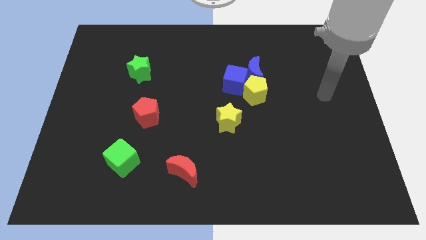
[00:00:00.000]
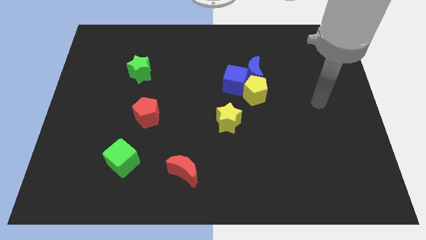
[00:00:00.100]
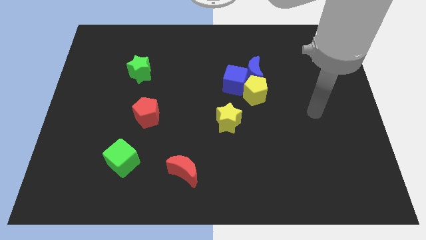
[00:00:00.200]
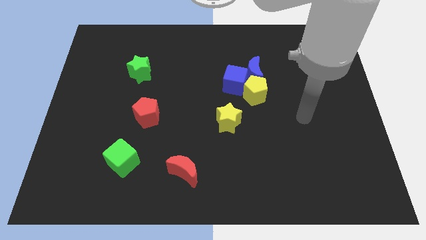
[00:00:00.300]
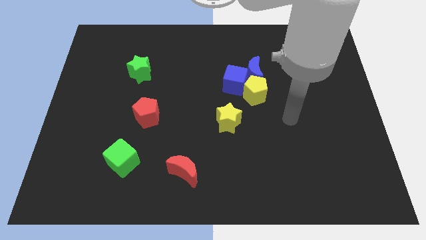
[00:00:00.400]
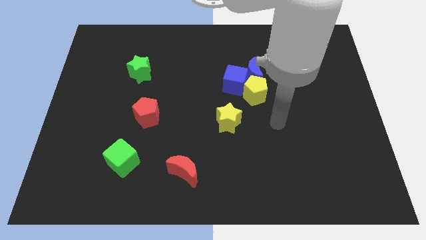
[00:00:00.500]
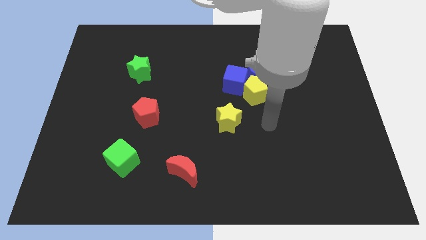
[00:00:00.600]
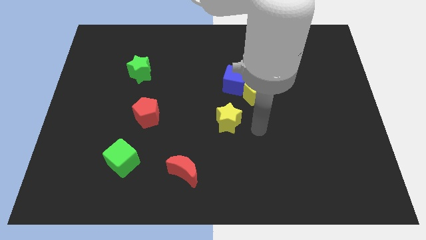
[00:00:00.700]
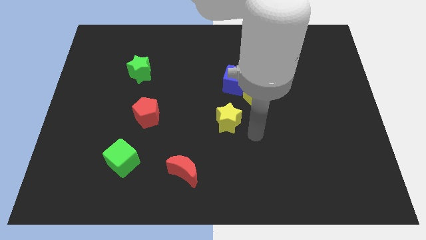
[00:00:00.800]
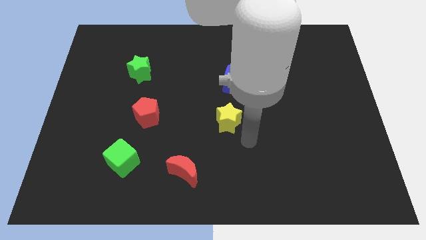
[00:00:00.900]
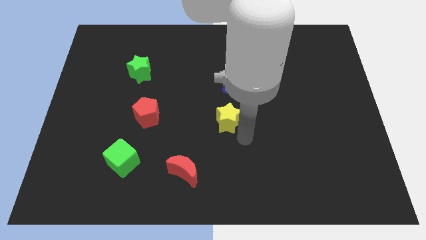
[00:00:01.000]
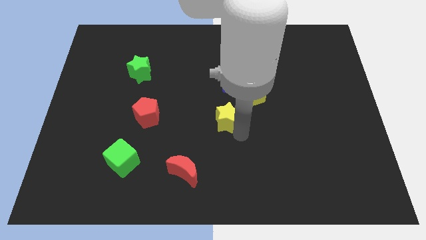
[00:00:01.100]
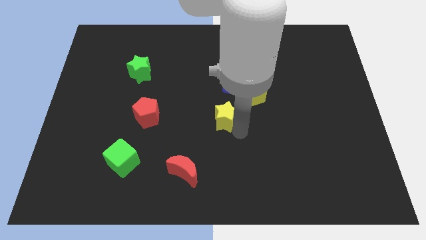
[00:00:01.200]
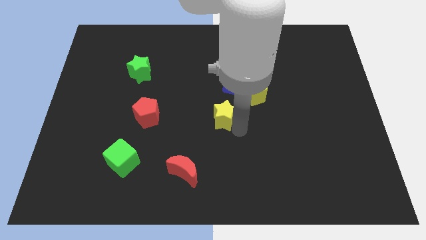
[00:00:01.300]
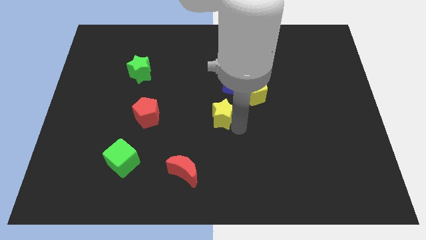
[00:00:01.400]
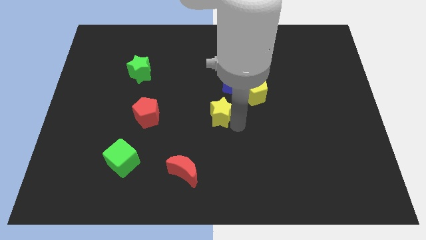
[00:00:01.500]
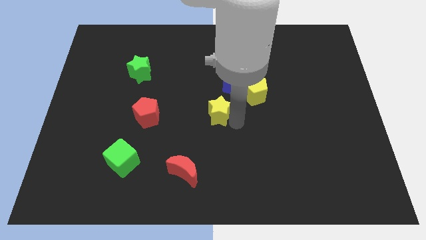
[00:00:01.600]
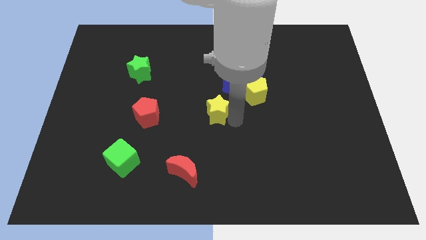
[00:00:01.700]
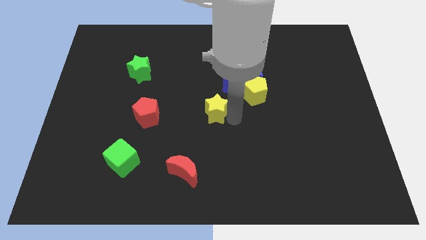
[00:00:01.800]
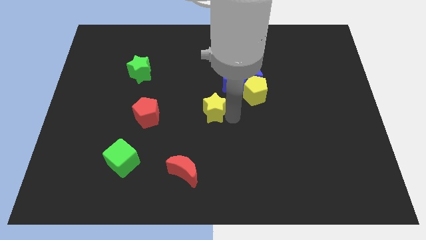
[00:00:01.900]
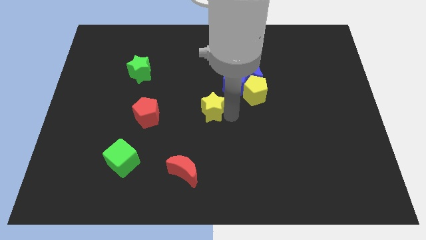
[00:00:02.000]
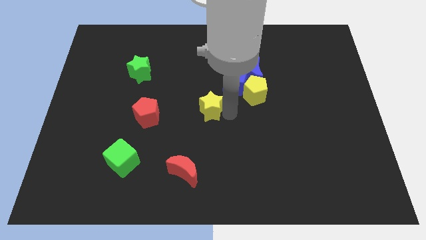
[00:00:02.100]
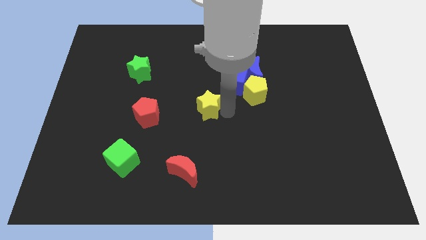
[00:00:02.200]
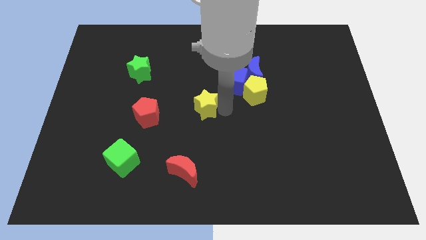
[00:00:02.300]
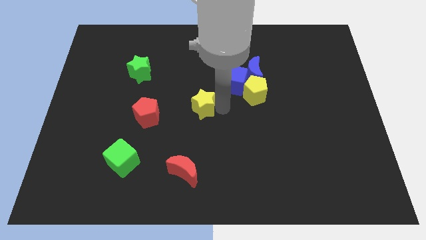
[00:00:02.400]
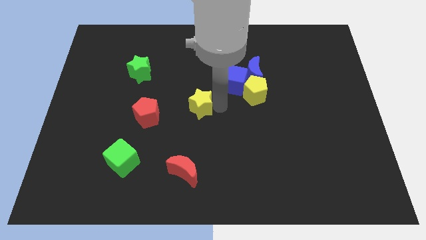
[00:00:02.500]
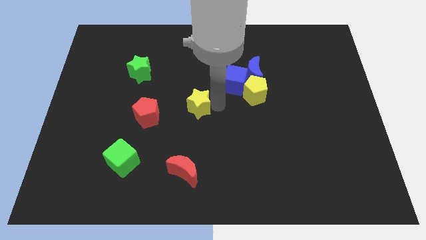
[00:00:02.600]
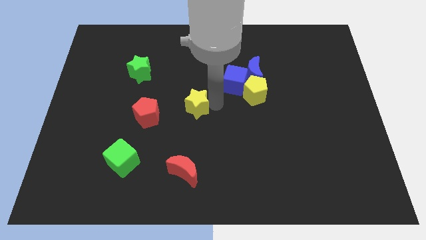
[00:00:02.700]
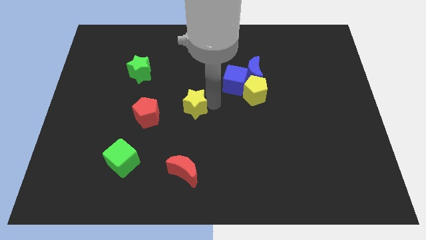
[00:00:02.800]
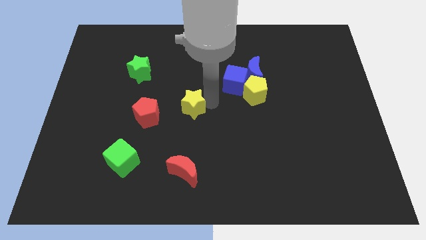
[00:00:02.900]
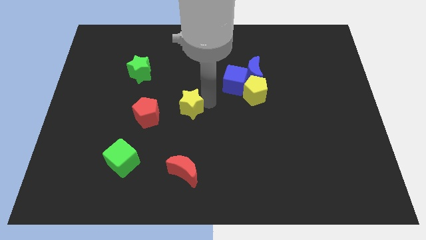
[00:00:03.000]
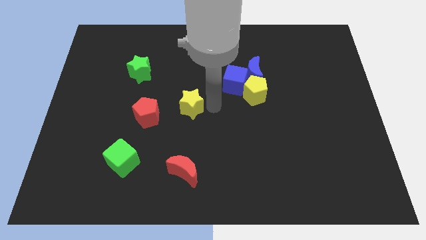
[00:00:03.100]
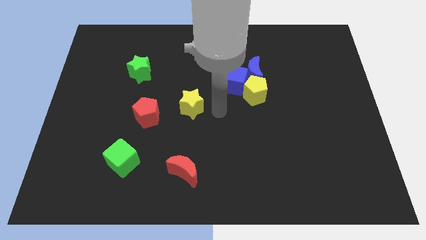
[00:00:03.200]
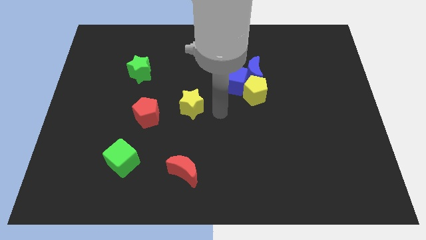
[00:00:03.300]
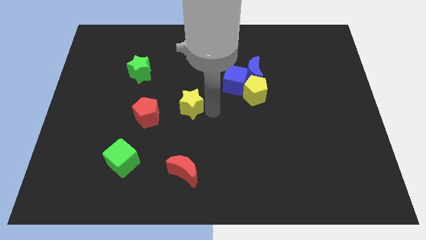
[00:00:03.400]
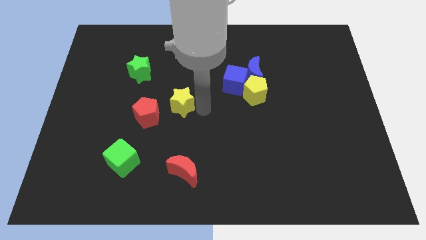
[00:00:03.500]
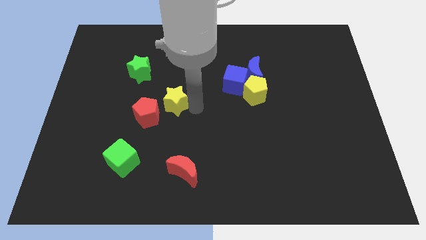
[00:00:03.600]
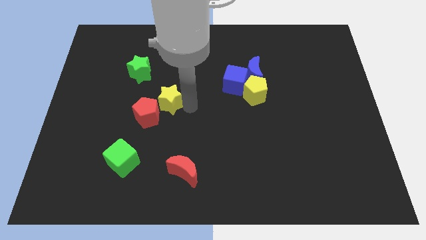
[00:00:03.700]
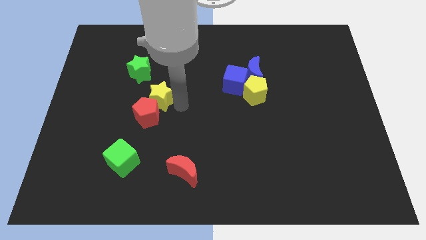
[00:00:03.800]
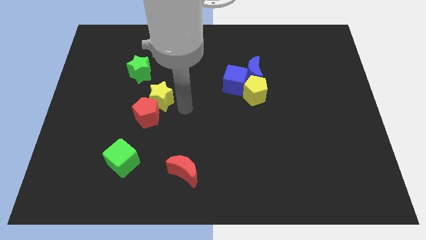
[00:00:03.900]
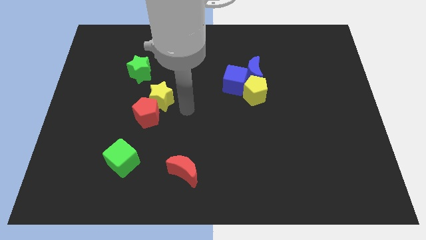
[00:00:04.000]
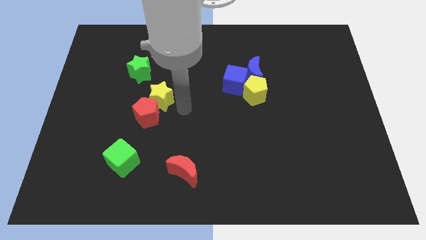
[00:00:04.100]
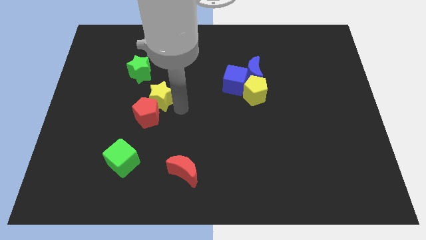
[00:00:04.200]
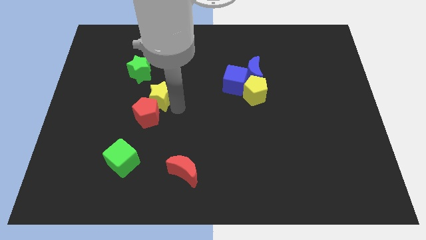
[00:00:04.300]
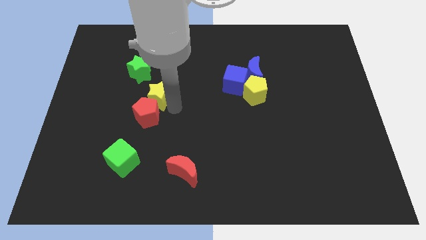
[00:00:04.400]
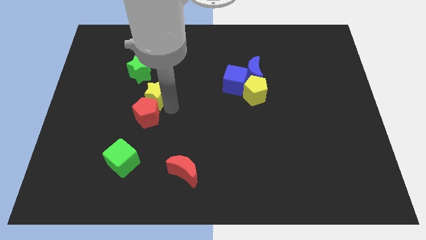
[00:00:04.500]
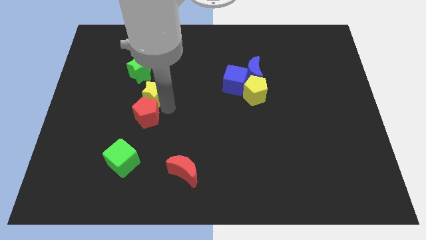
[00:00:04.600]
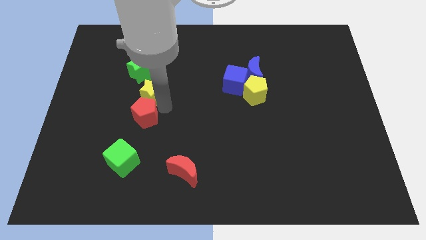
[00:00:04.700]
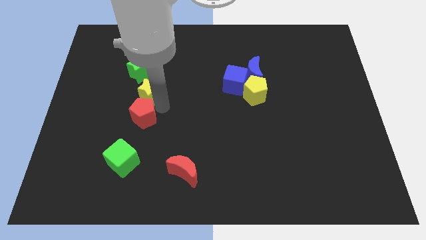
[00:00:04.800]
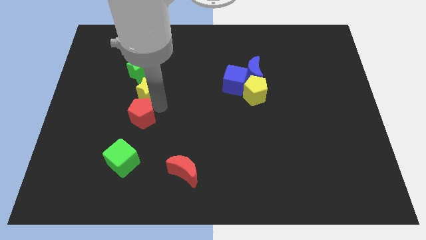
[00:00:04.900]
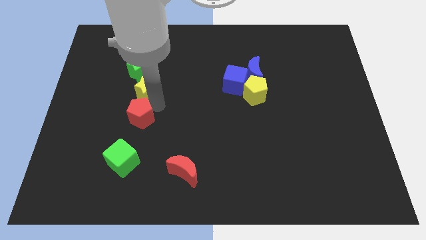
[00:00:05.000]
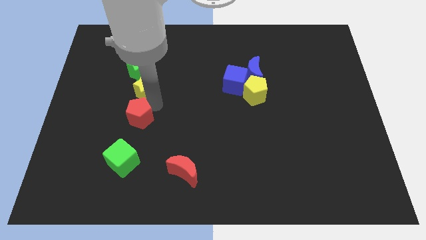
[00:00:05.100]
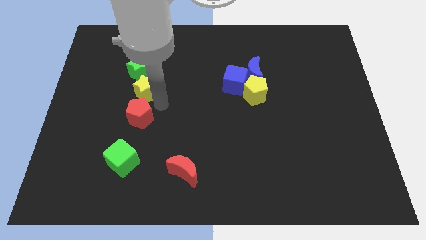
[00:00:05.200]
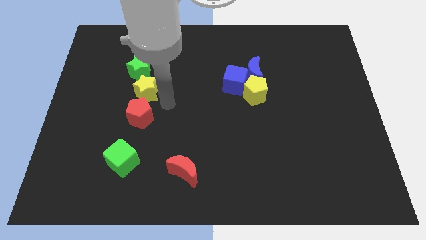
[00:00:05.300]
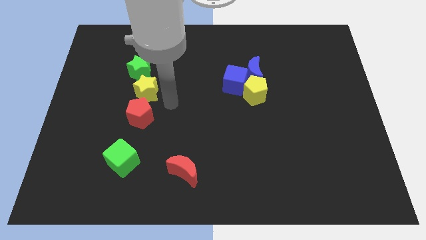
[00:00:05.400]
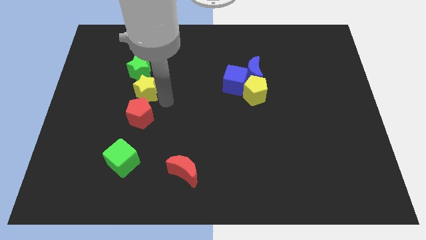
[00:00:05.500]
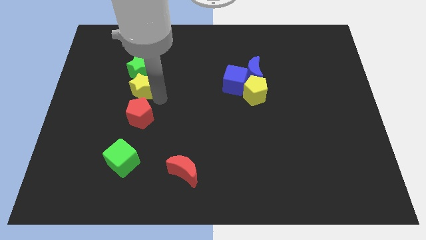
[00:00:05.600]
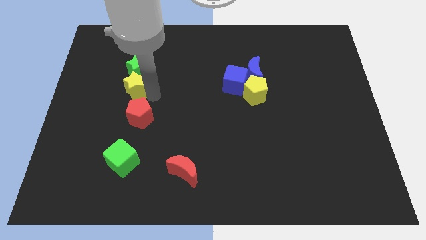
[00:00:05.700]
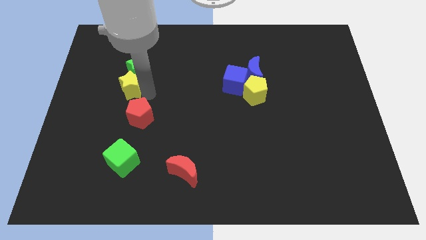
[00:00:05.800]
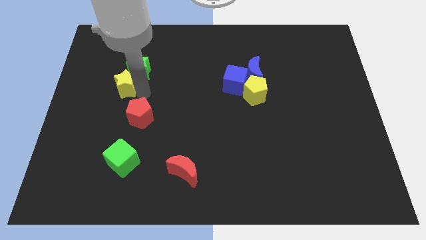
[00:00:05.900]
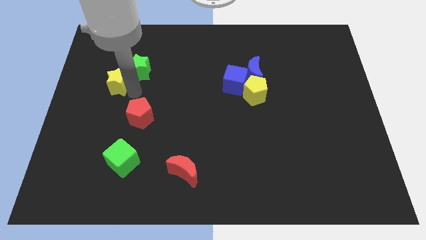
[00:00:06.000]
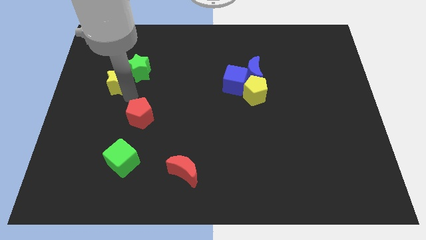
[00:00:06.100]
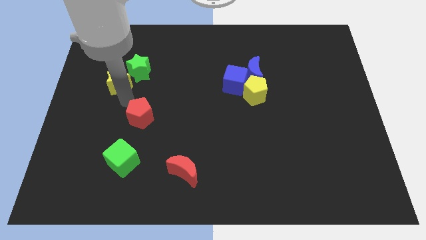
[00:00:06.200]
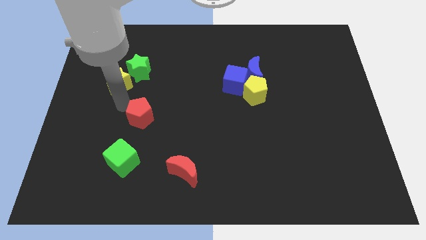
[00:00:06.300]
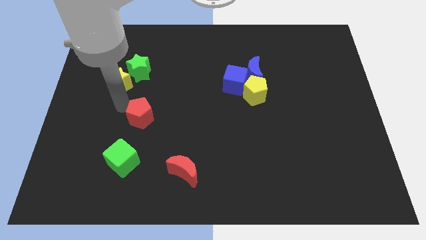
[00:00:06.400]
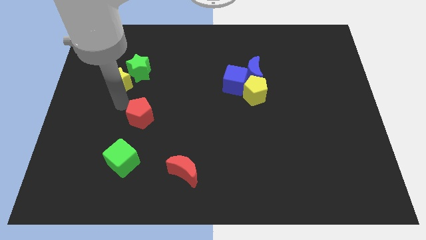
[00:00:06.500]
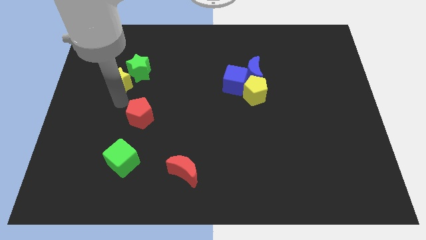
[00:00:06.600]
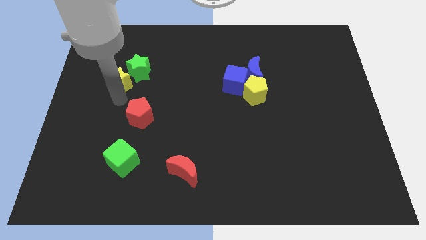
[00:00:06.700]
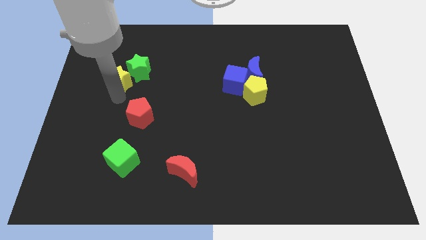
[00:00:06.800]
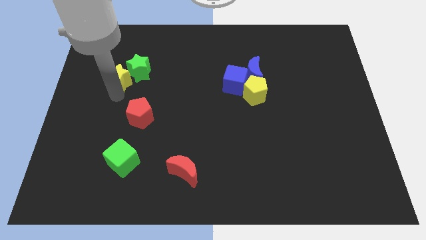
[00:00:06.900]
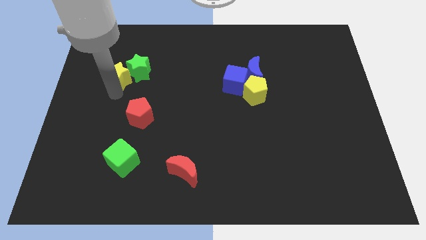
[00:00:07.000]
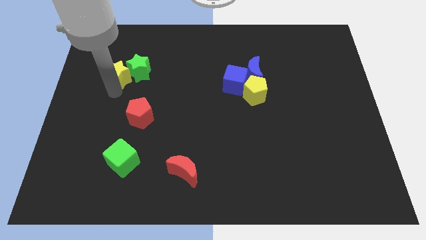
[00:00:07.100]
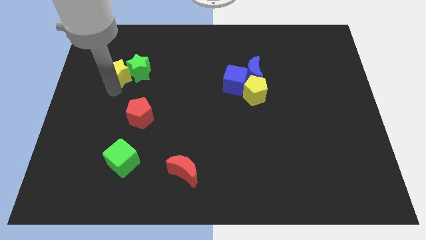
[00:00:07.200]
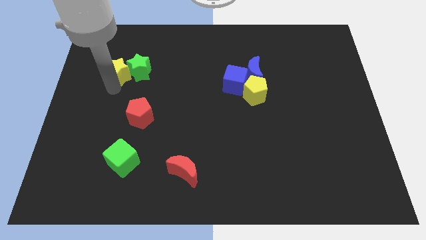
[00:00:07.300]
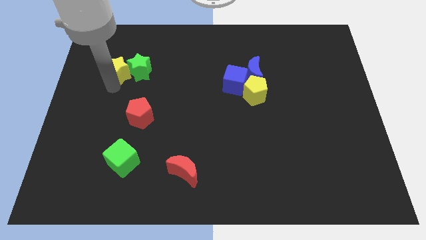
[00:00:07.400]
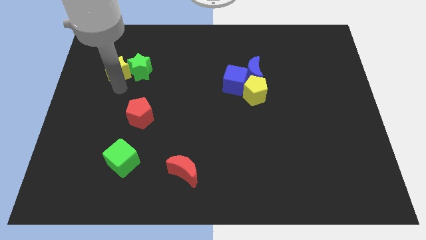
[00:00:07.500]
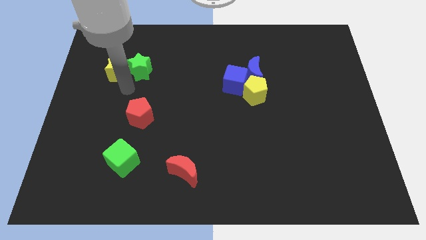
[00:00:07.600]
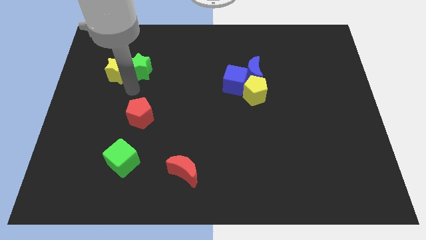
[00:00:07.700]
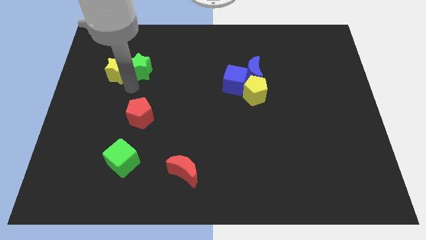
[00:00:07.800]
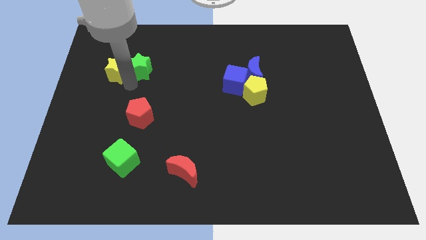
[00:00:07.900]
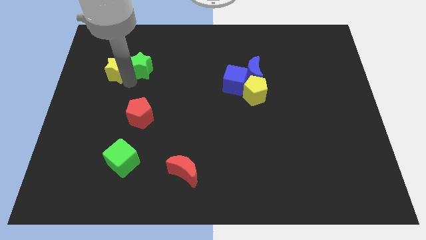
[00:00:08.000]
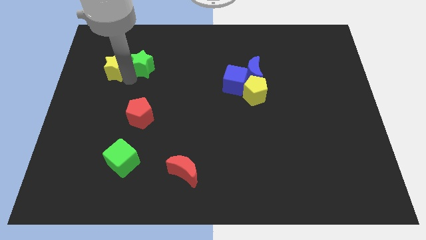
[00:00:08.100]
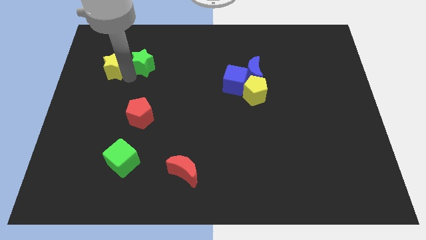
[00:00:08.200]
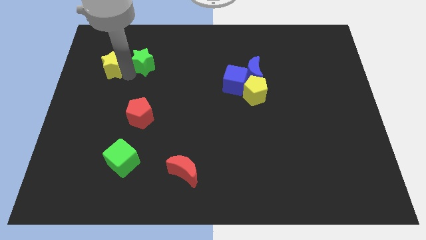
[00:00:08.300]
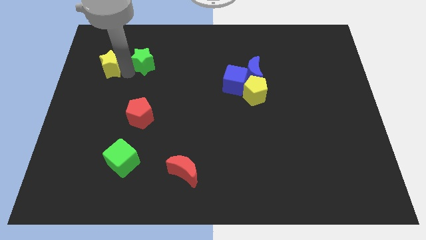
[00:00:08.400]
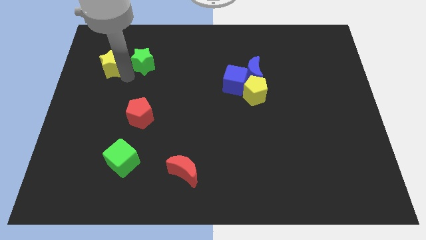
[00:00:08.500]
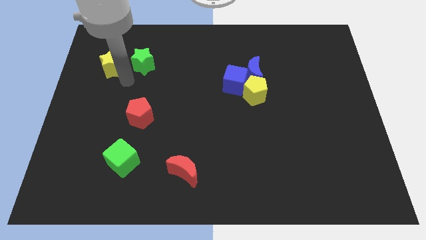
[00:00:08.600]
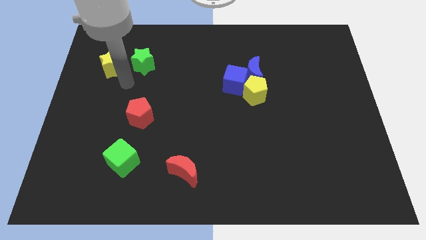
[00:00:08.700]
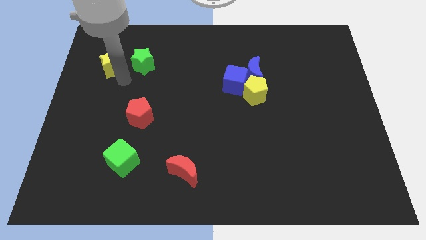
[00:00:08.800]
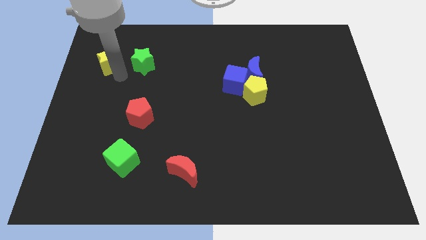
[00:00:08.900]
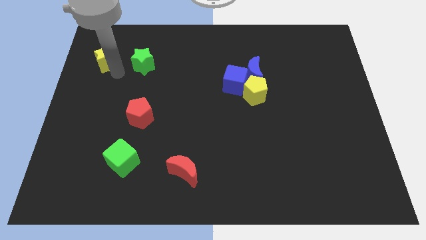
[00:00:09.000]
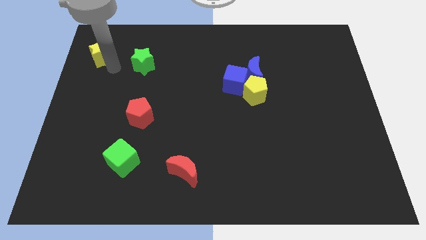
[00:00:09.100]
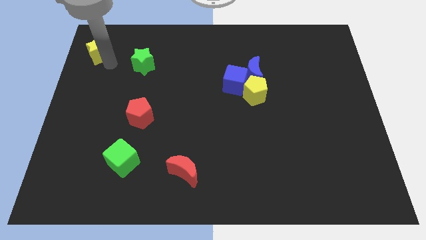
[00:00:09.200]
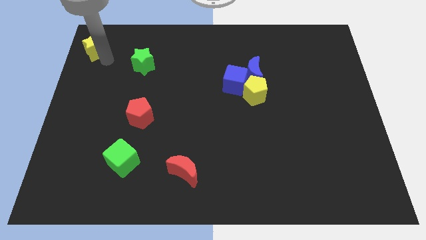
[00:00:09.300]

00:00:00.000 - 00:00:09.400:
slide the yellow star to the top left of the board
